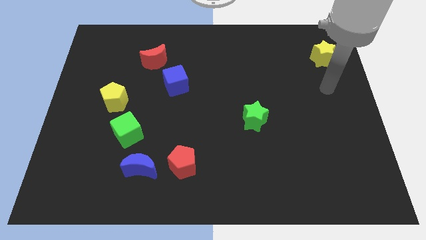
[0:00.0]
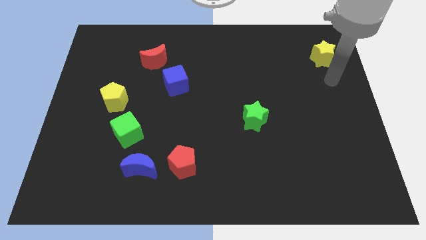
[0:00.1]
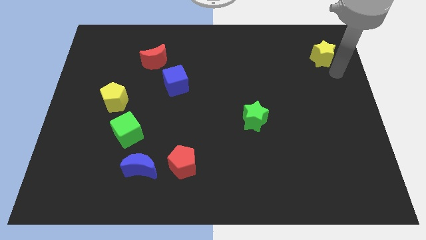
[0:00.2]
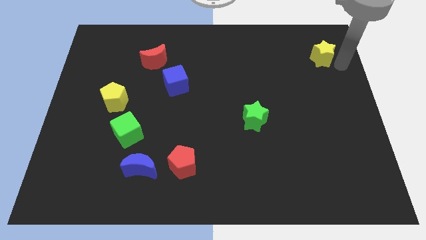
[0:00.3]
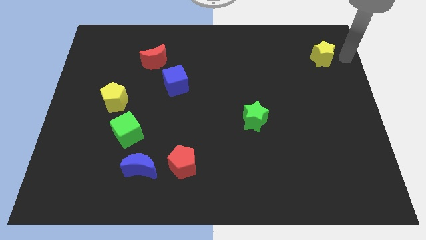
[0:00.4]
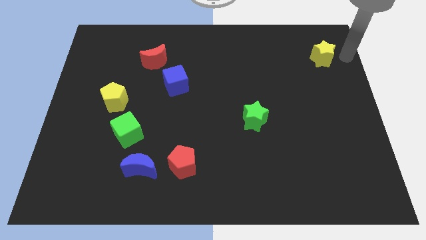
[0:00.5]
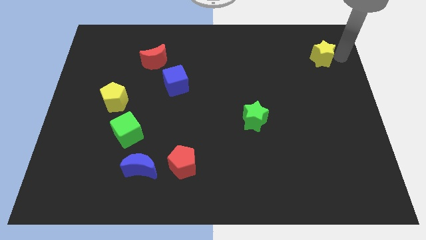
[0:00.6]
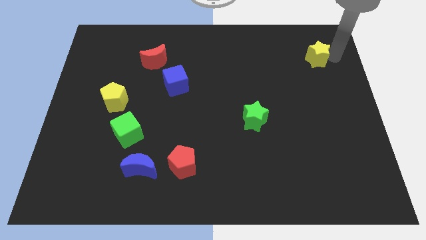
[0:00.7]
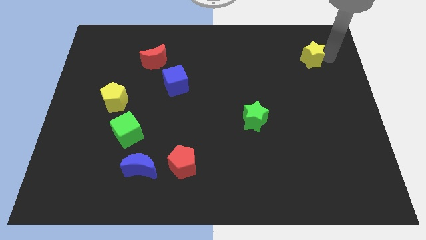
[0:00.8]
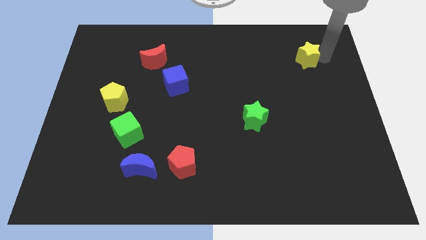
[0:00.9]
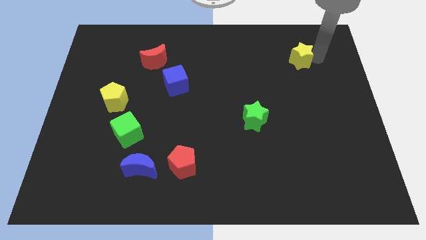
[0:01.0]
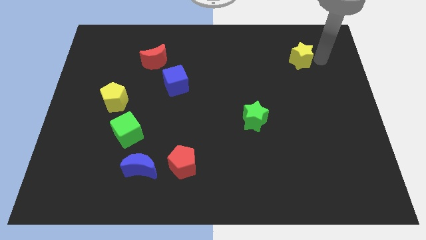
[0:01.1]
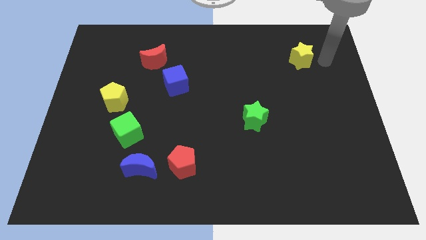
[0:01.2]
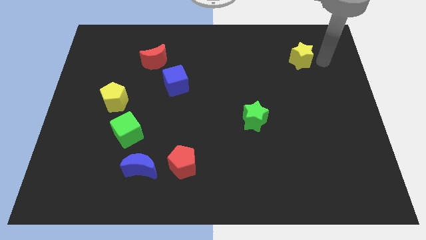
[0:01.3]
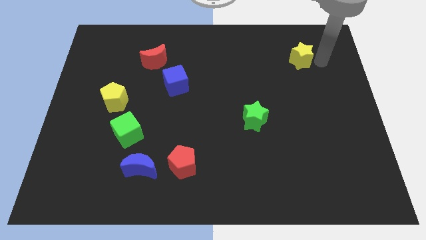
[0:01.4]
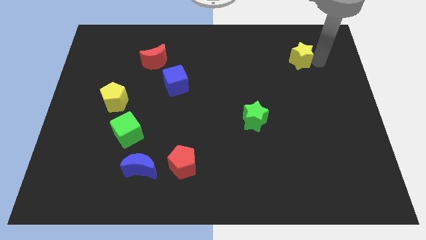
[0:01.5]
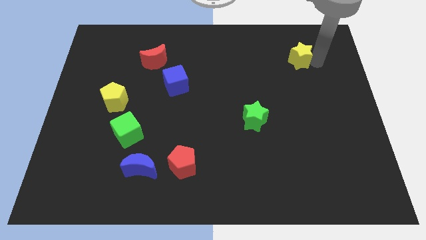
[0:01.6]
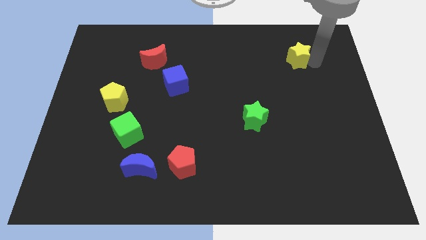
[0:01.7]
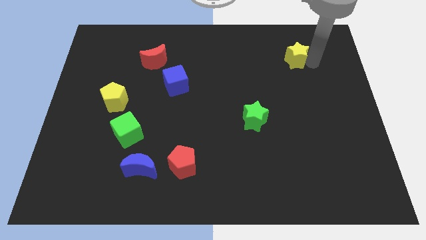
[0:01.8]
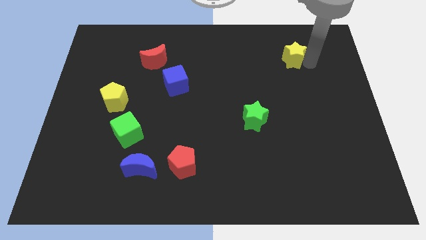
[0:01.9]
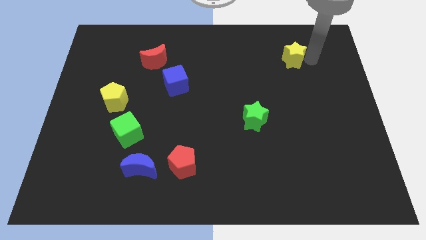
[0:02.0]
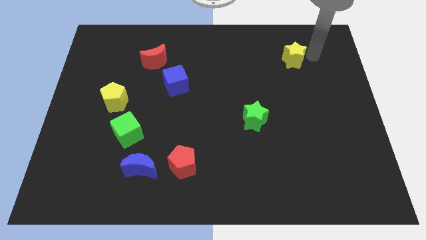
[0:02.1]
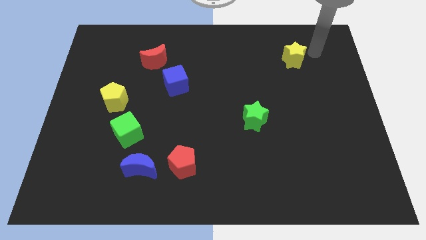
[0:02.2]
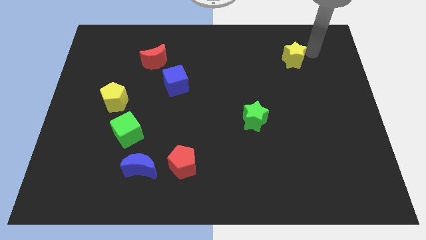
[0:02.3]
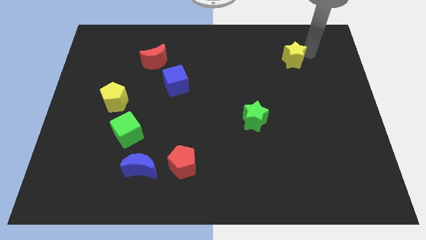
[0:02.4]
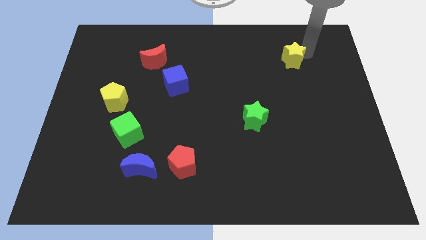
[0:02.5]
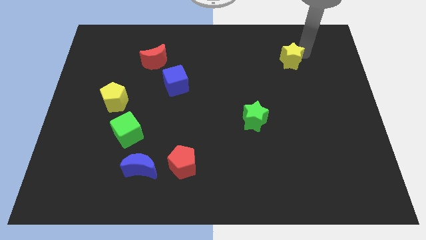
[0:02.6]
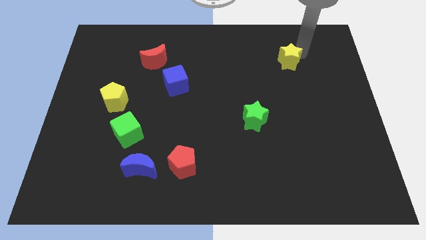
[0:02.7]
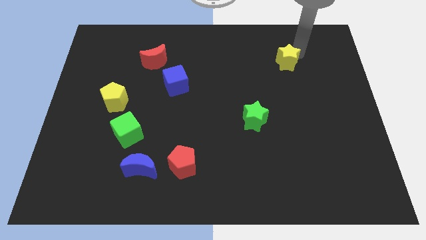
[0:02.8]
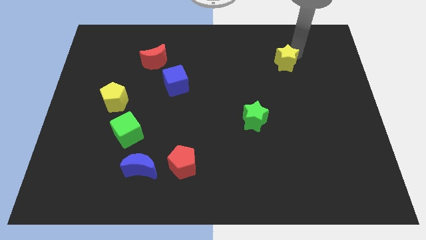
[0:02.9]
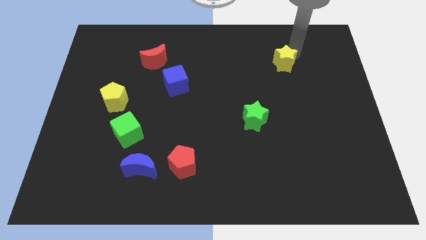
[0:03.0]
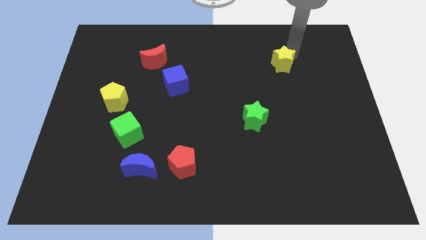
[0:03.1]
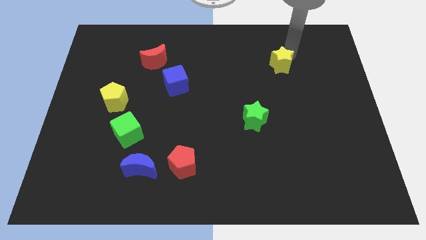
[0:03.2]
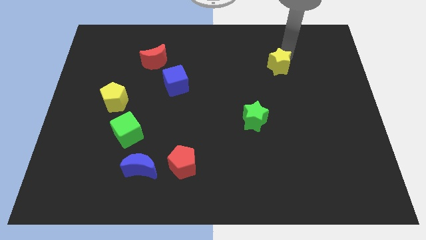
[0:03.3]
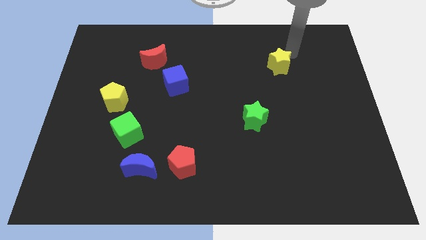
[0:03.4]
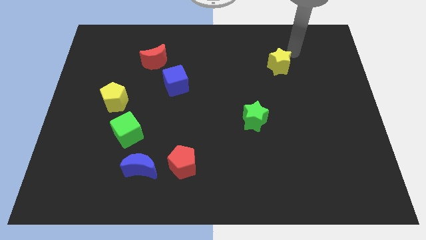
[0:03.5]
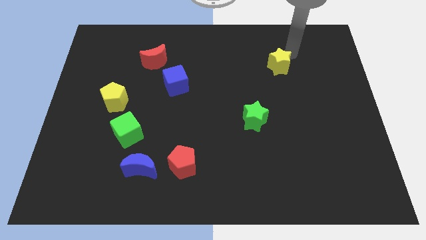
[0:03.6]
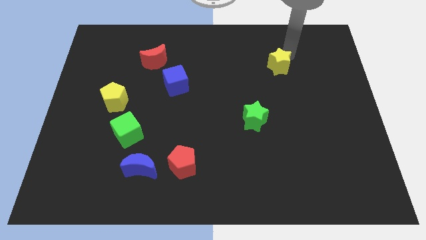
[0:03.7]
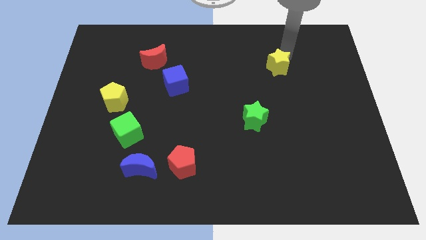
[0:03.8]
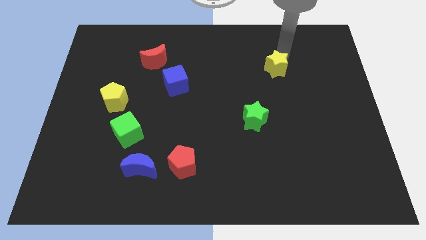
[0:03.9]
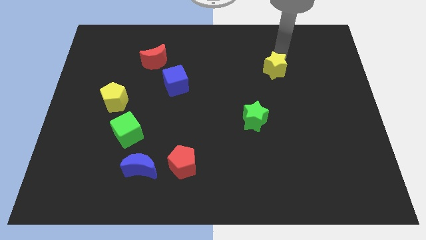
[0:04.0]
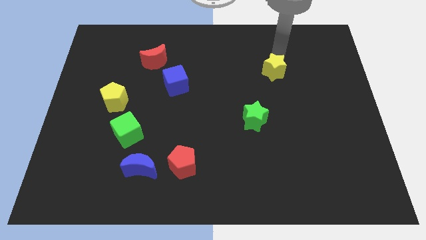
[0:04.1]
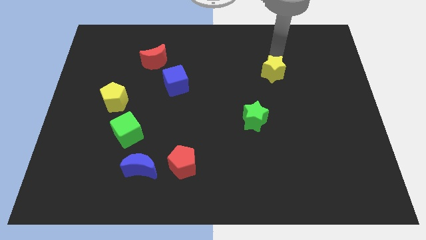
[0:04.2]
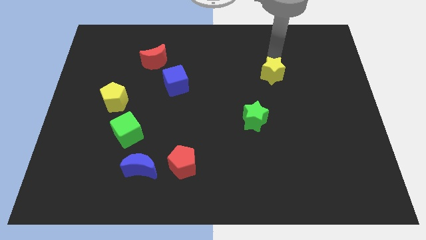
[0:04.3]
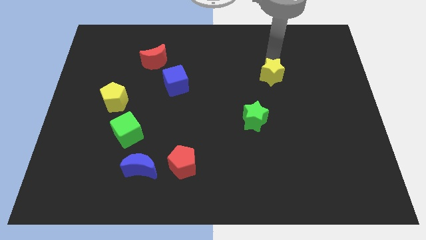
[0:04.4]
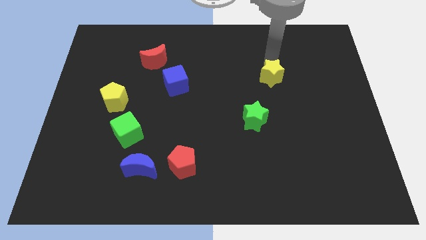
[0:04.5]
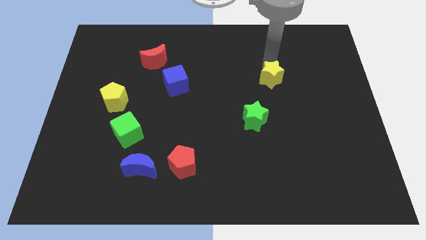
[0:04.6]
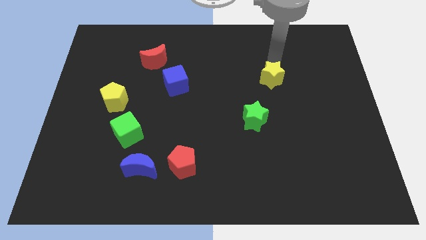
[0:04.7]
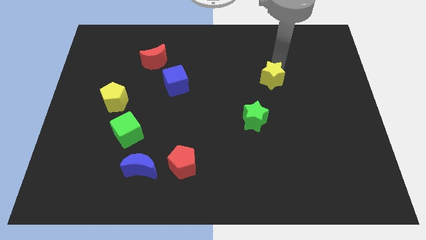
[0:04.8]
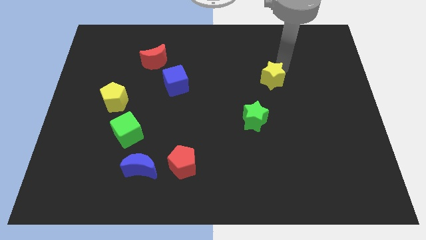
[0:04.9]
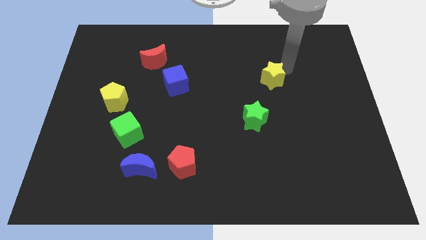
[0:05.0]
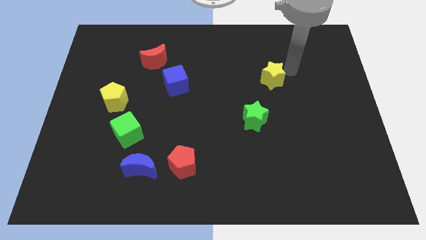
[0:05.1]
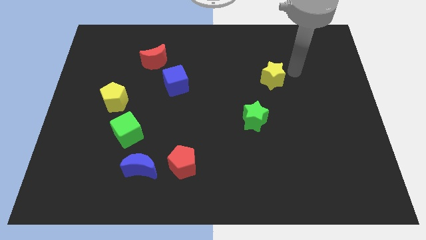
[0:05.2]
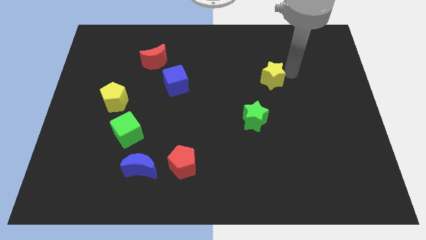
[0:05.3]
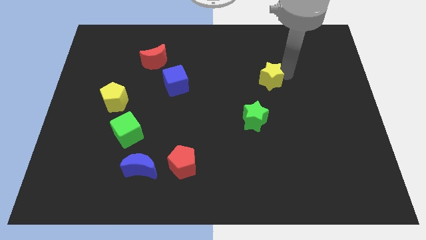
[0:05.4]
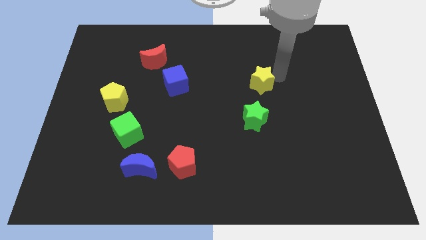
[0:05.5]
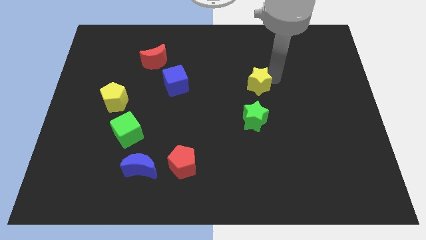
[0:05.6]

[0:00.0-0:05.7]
put the yellow star to the middle of the board

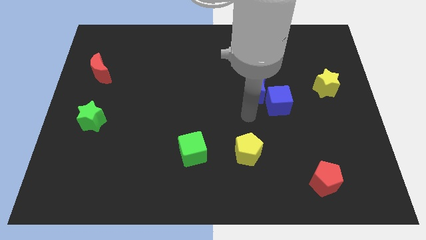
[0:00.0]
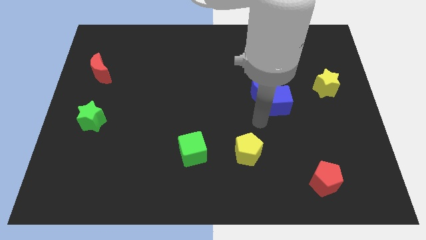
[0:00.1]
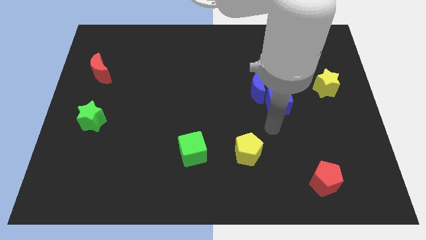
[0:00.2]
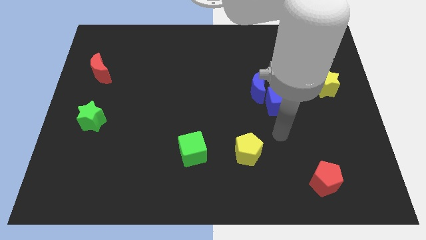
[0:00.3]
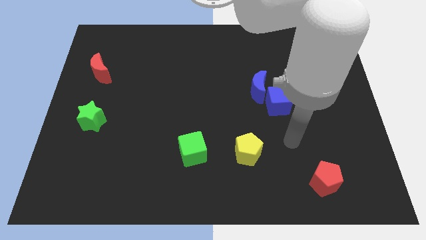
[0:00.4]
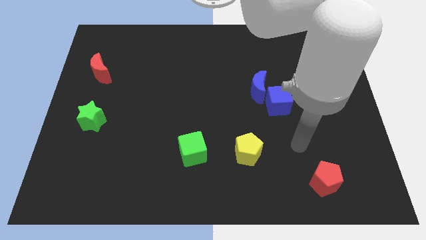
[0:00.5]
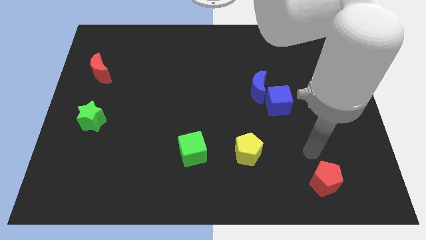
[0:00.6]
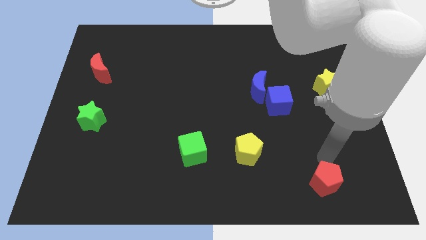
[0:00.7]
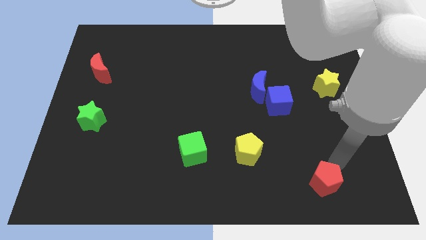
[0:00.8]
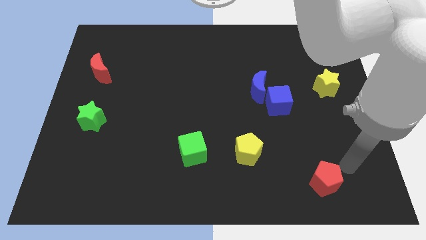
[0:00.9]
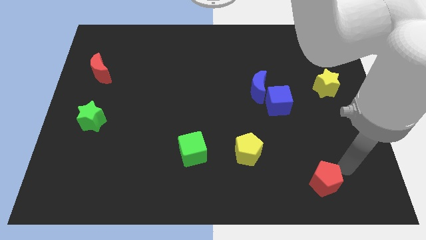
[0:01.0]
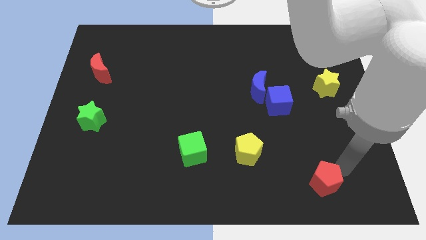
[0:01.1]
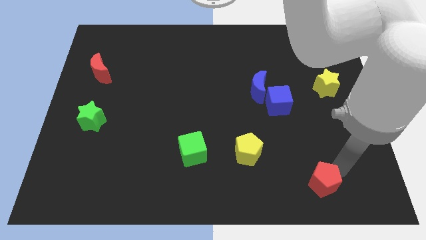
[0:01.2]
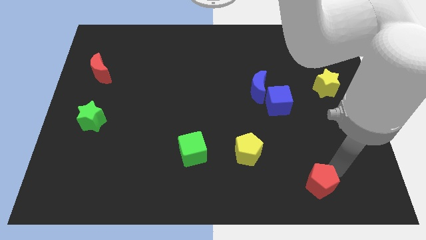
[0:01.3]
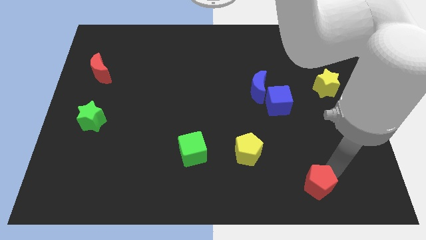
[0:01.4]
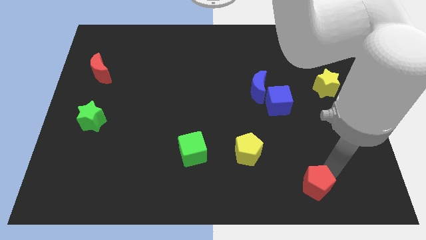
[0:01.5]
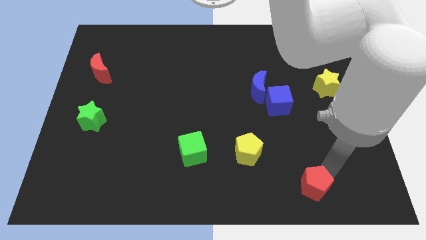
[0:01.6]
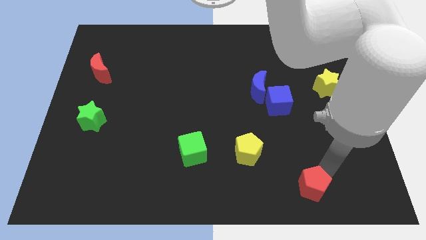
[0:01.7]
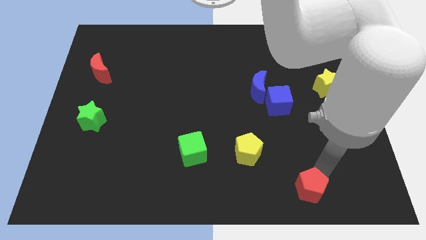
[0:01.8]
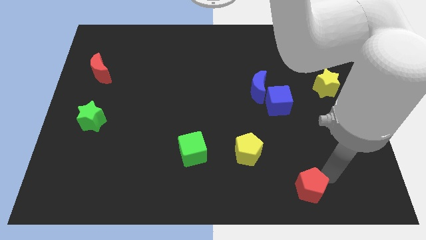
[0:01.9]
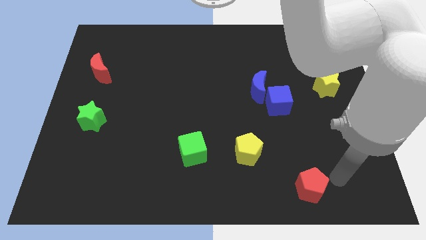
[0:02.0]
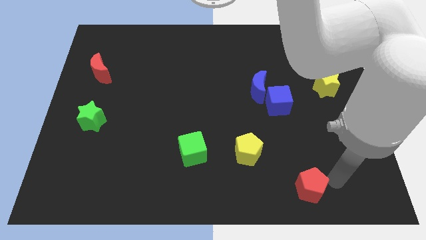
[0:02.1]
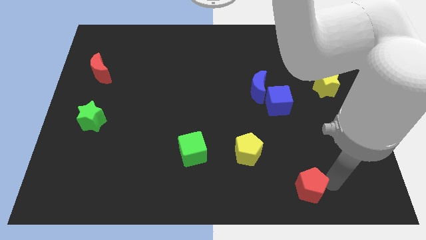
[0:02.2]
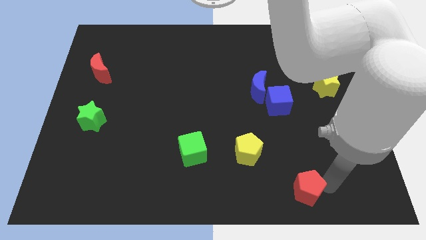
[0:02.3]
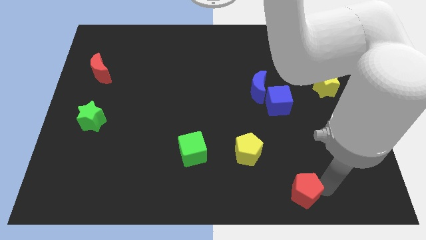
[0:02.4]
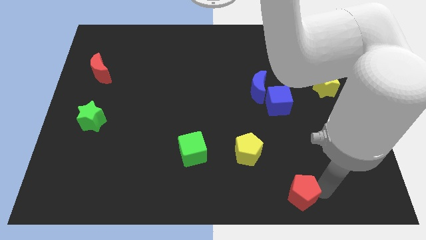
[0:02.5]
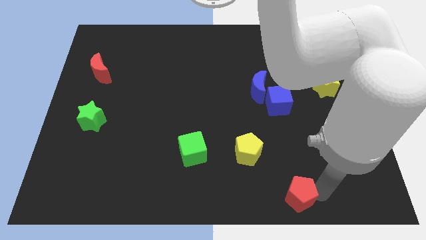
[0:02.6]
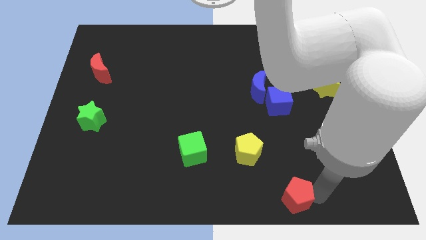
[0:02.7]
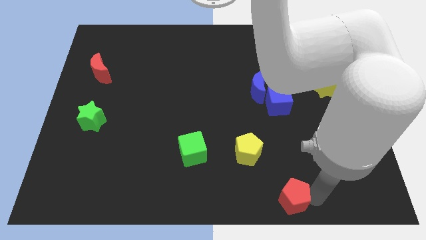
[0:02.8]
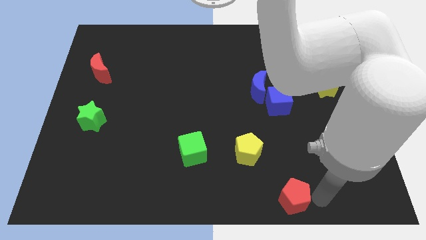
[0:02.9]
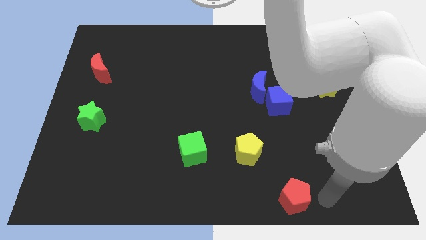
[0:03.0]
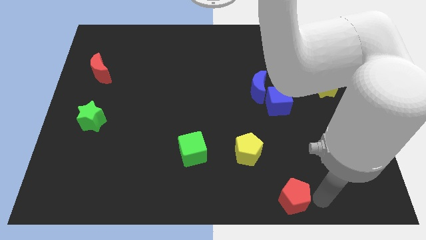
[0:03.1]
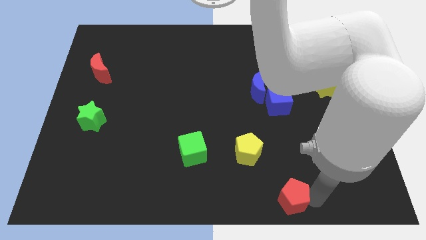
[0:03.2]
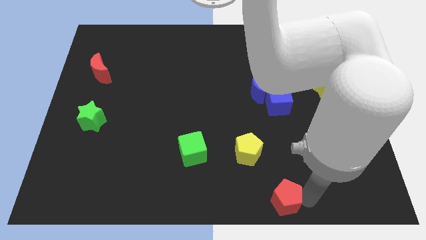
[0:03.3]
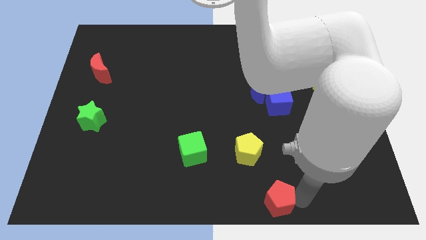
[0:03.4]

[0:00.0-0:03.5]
push the red pentagon to the bottom side
